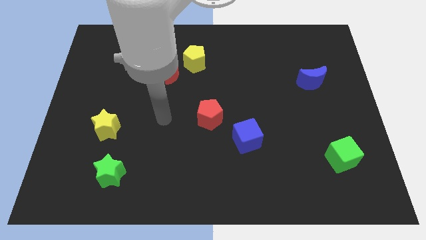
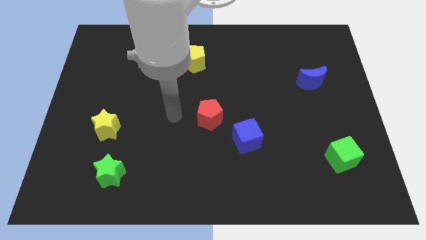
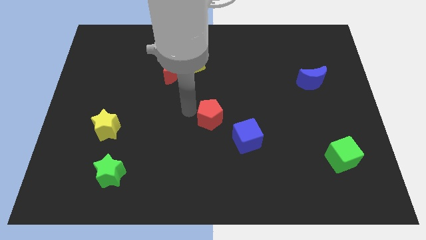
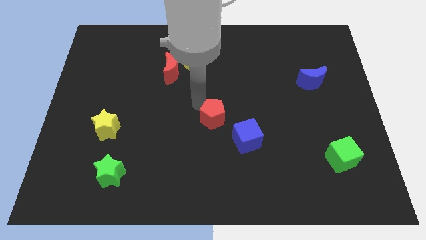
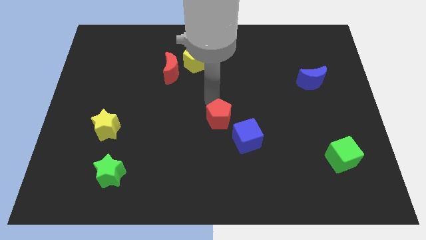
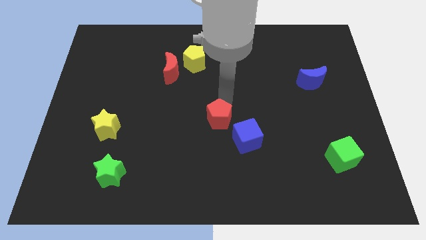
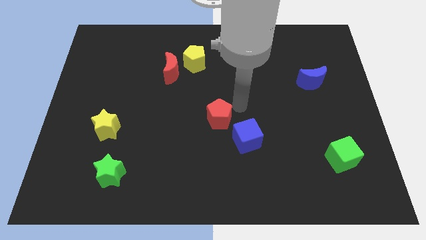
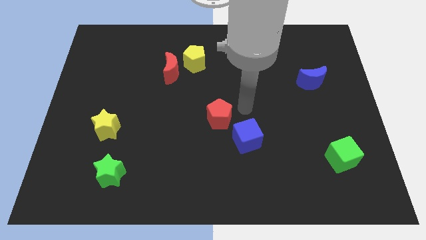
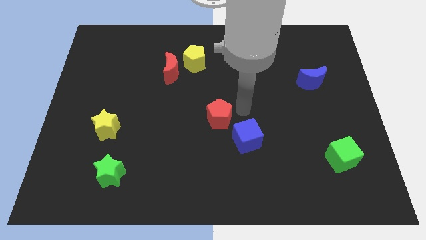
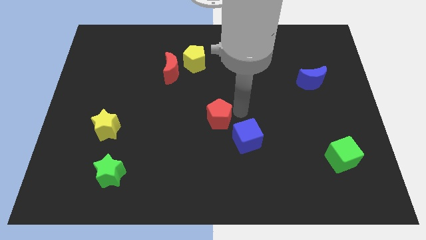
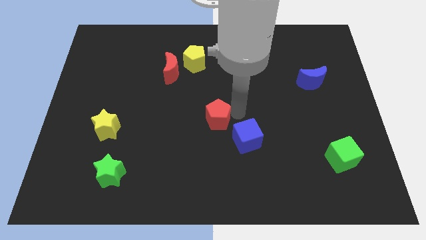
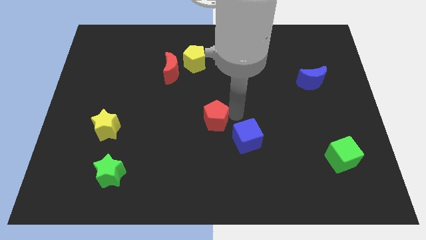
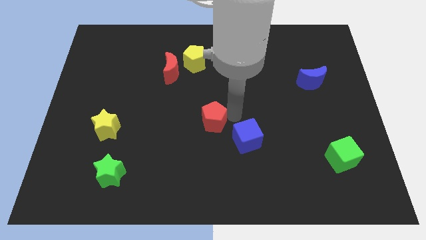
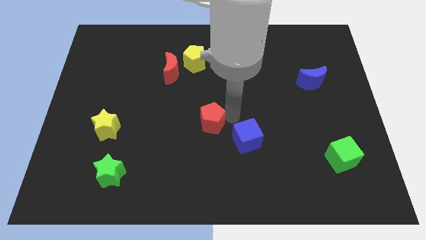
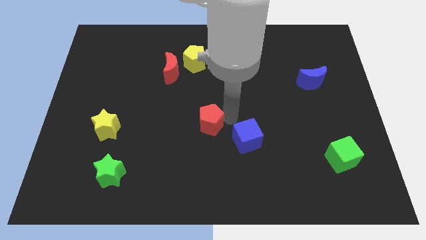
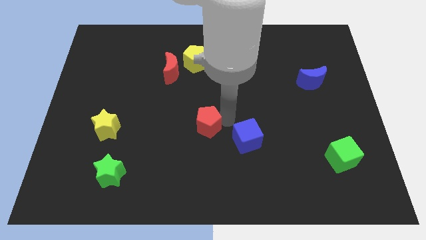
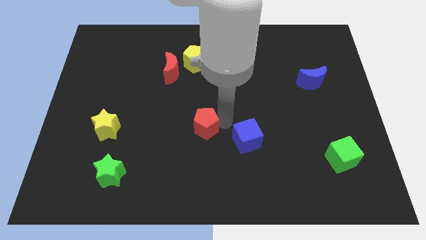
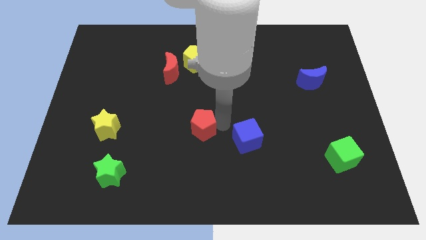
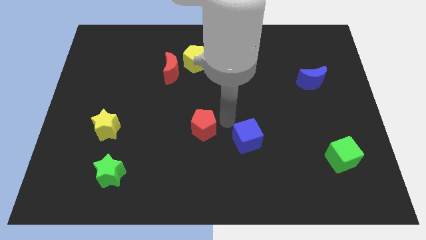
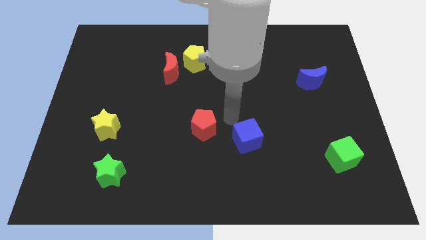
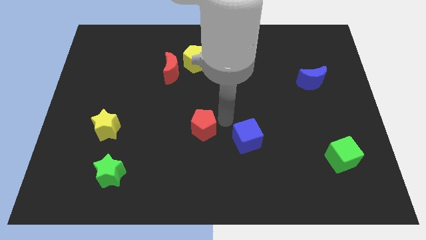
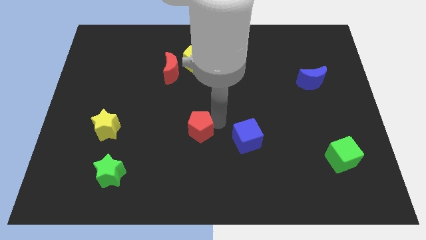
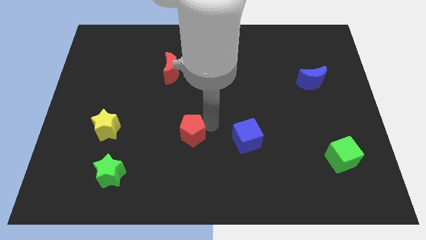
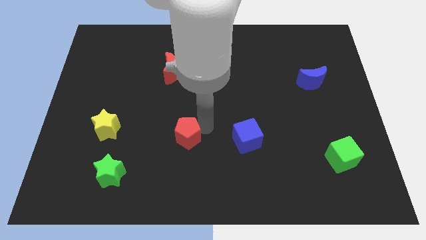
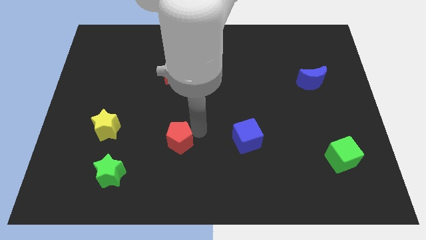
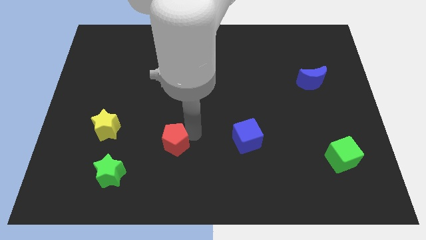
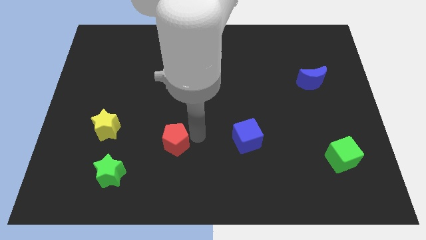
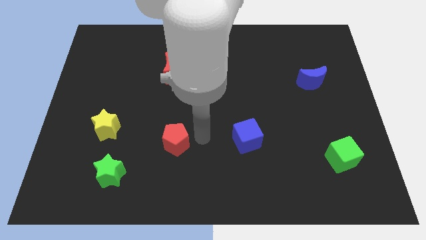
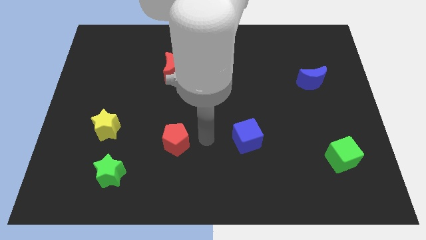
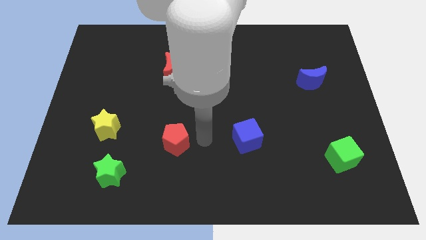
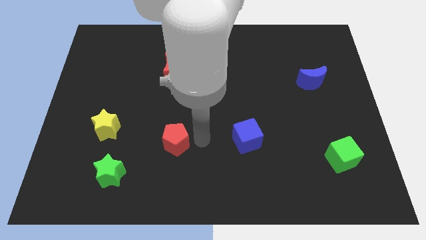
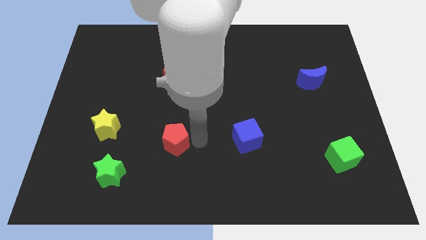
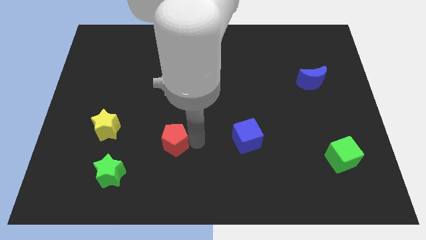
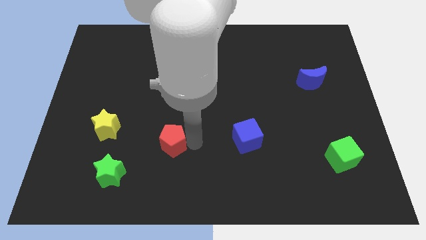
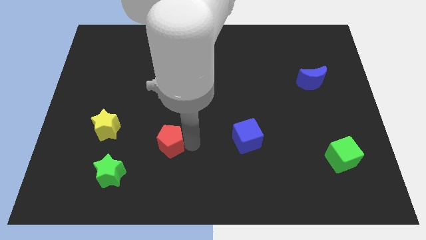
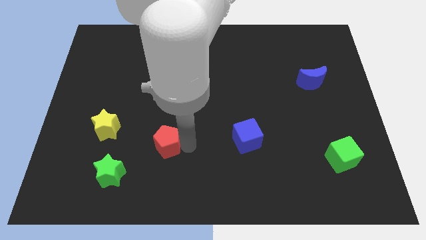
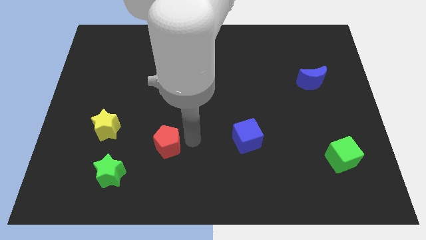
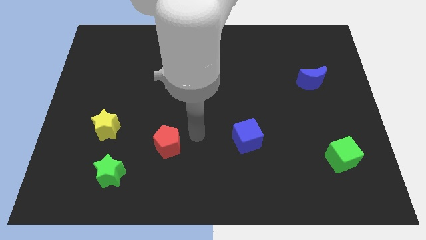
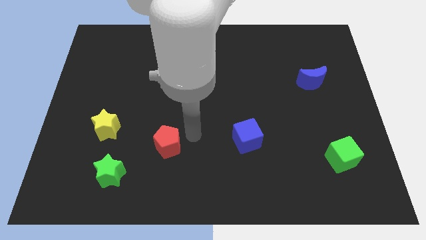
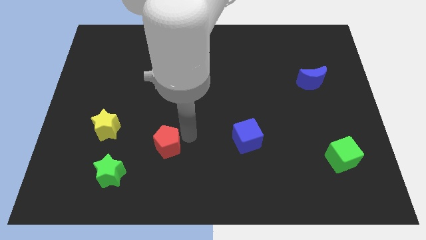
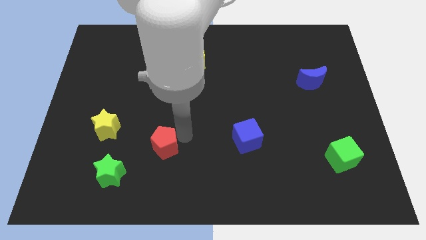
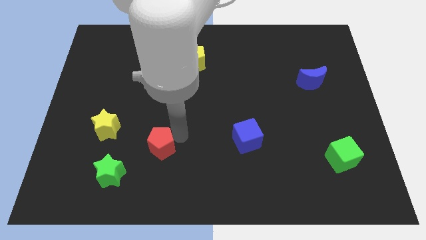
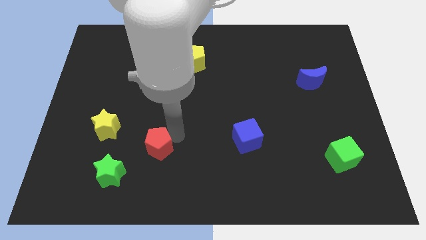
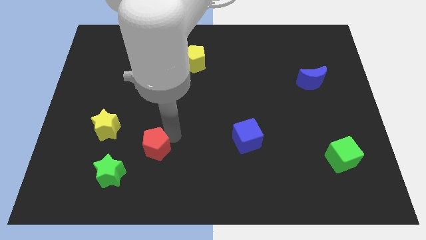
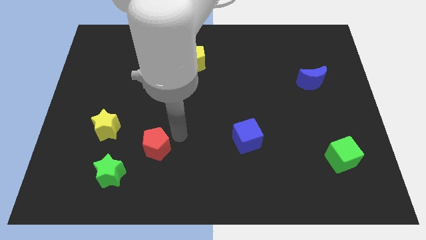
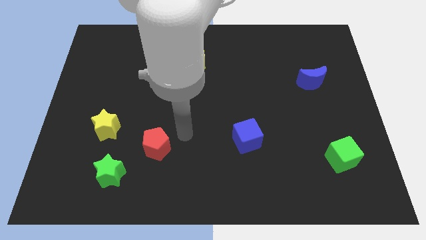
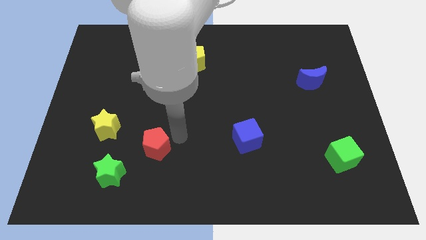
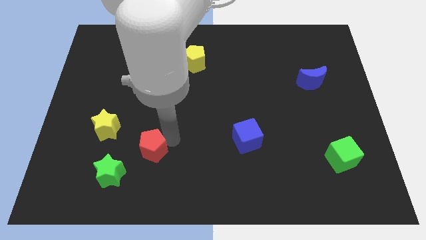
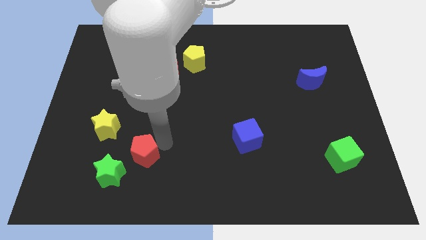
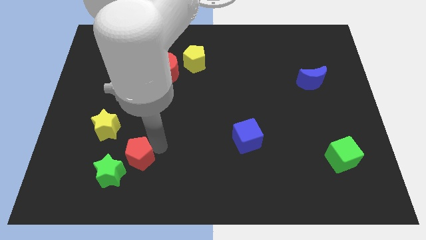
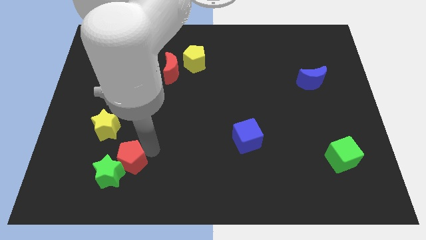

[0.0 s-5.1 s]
push the red pentagon towards the green star
